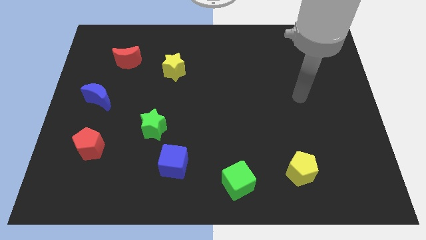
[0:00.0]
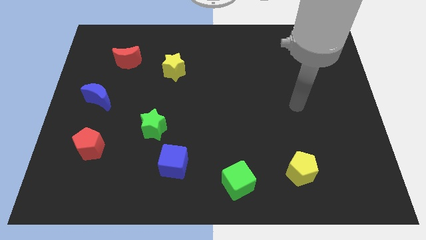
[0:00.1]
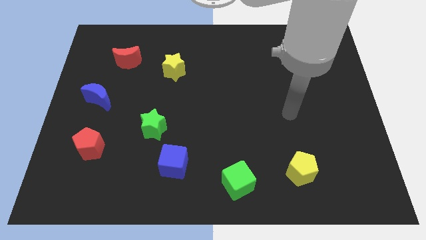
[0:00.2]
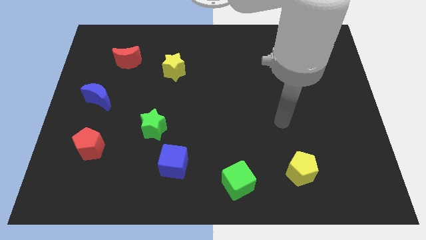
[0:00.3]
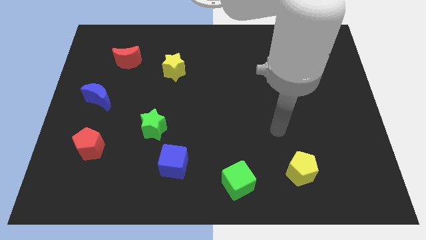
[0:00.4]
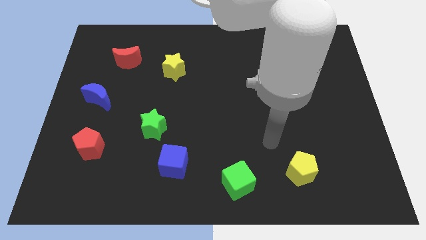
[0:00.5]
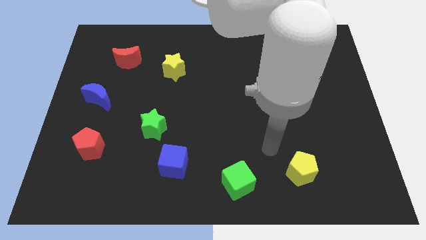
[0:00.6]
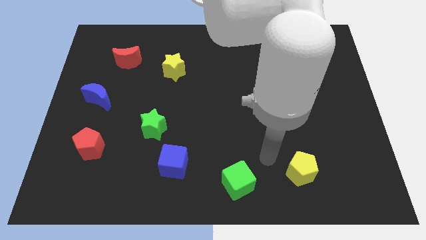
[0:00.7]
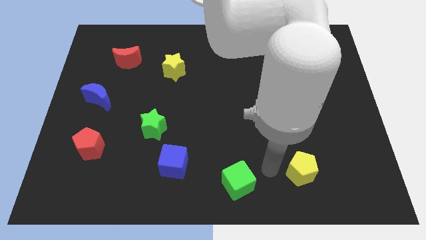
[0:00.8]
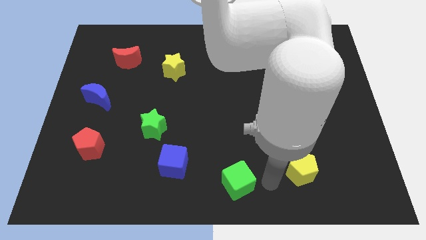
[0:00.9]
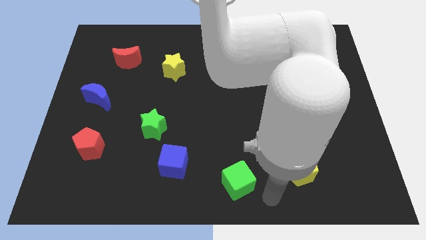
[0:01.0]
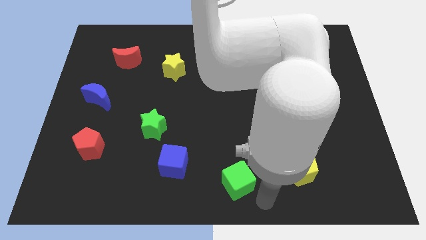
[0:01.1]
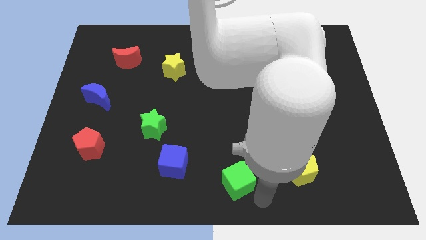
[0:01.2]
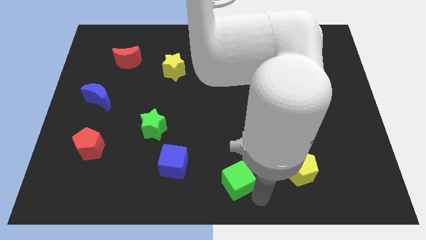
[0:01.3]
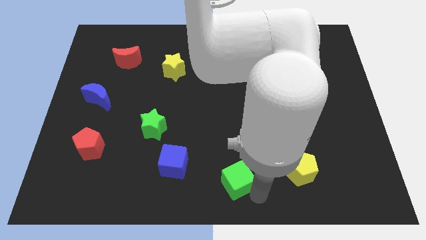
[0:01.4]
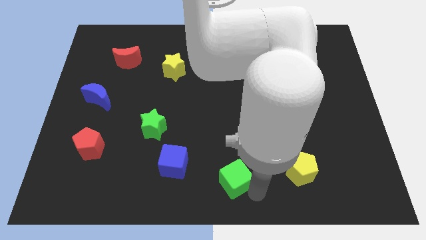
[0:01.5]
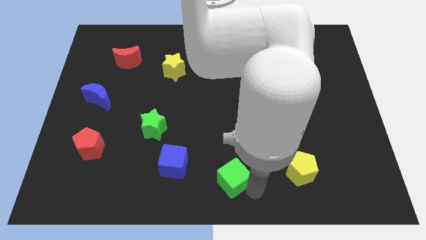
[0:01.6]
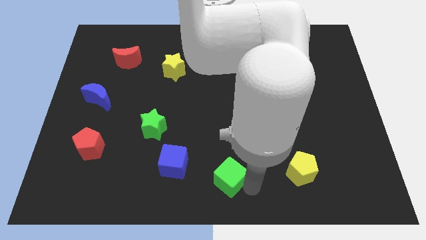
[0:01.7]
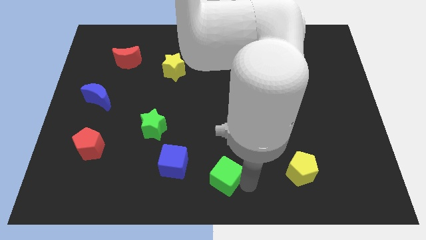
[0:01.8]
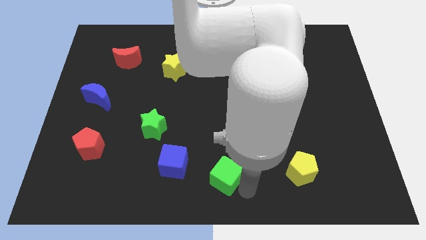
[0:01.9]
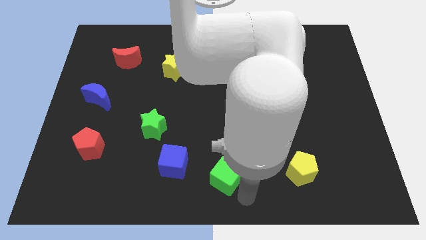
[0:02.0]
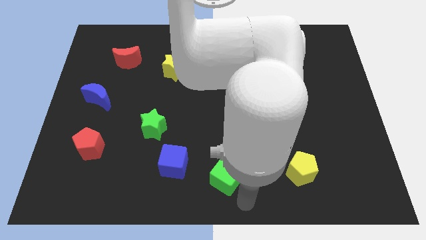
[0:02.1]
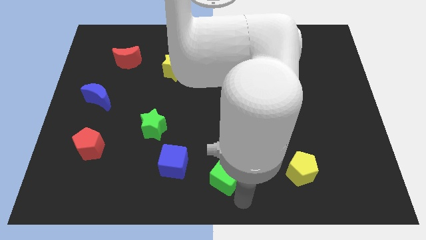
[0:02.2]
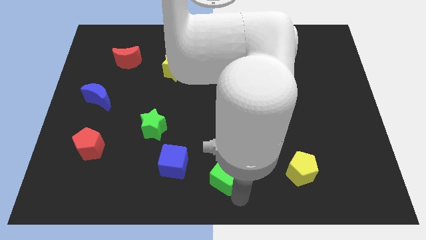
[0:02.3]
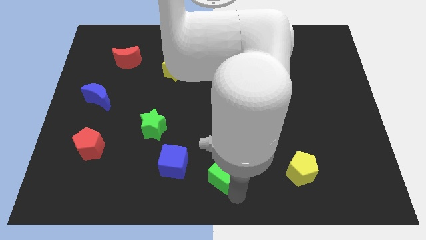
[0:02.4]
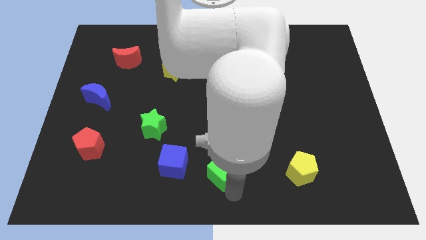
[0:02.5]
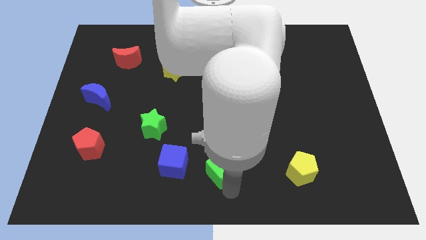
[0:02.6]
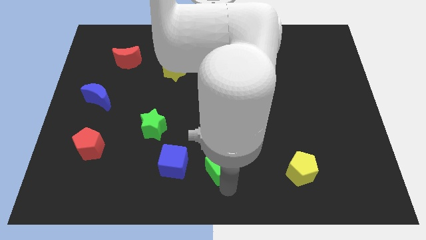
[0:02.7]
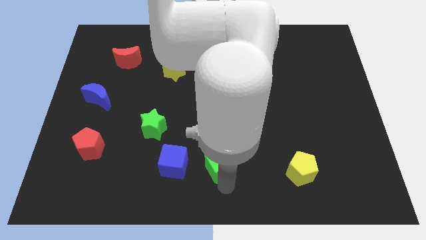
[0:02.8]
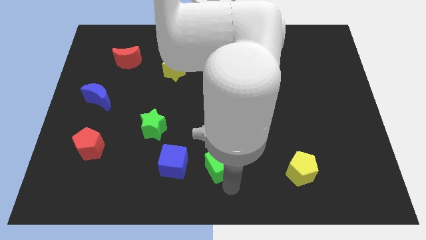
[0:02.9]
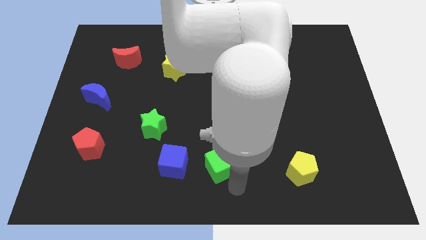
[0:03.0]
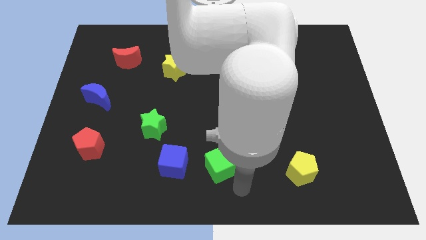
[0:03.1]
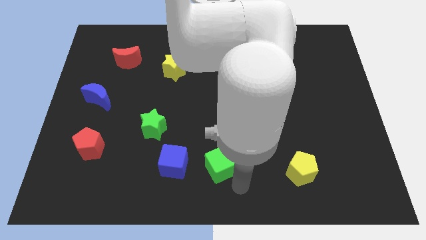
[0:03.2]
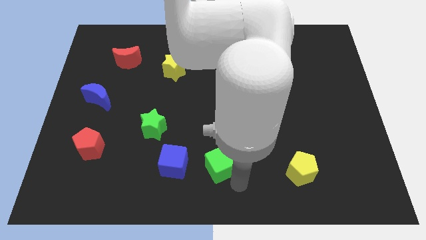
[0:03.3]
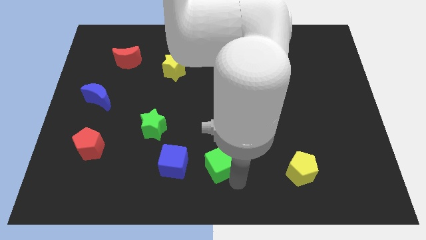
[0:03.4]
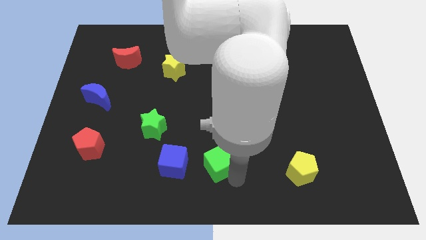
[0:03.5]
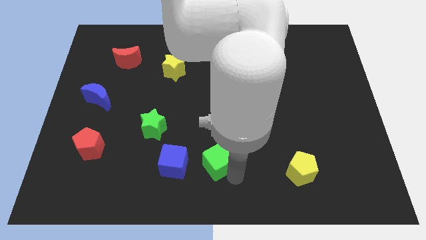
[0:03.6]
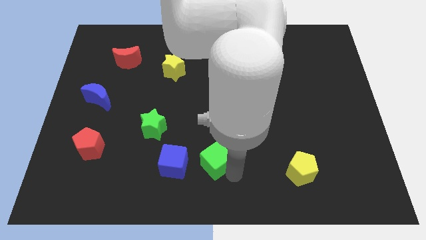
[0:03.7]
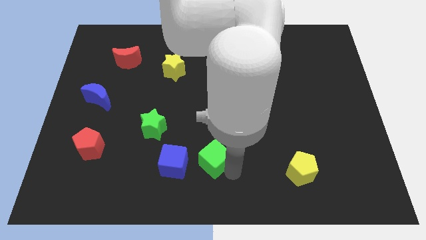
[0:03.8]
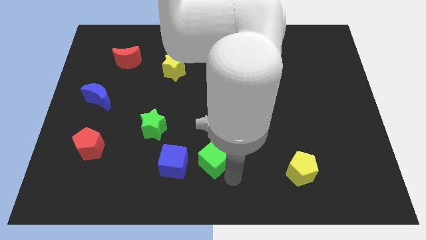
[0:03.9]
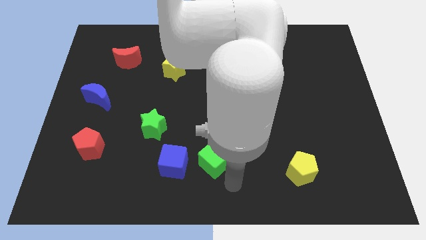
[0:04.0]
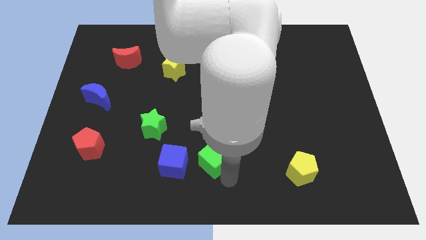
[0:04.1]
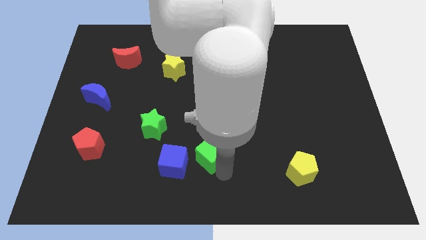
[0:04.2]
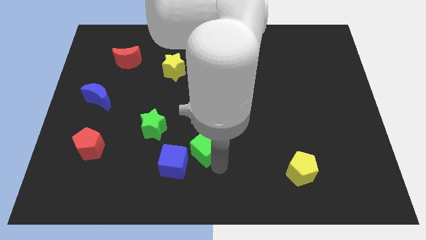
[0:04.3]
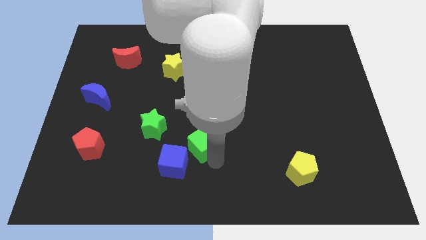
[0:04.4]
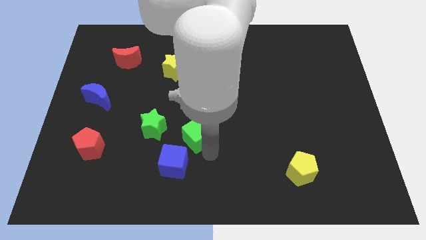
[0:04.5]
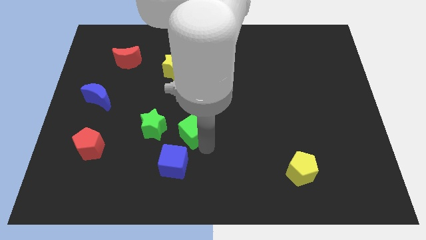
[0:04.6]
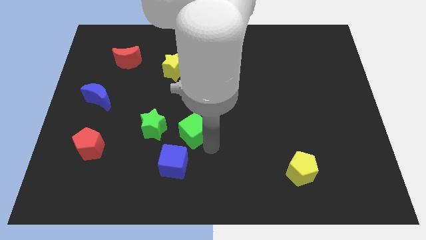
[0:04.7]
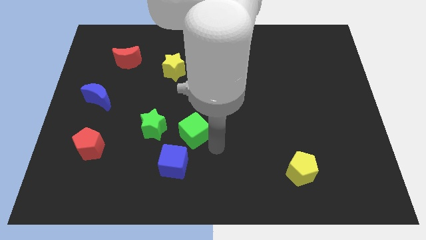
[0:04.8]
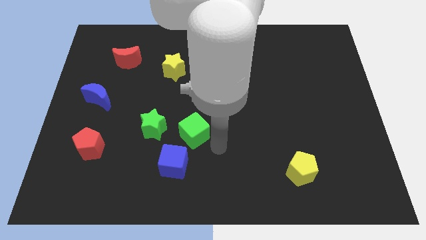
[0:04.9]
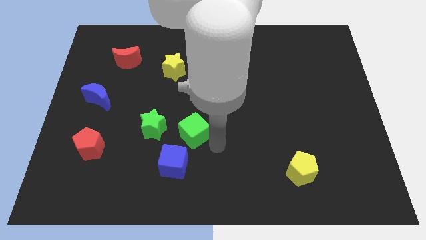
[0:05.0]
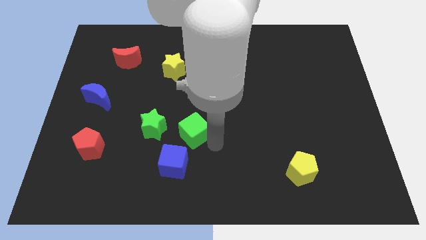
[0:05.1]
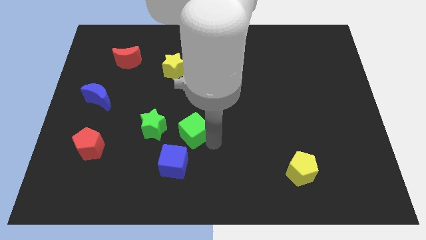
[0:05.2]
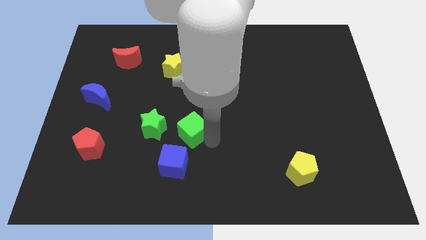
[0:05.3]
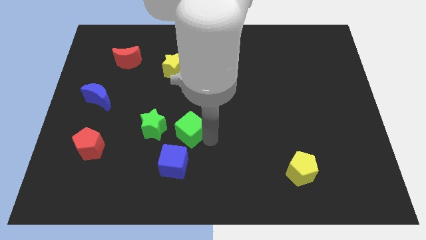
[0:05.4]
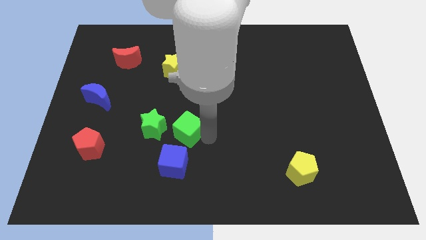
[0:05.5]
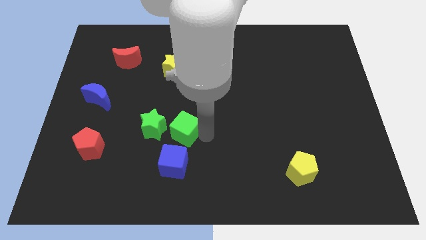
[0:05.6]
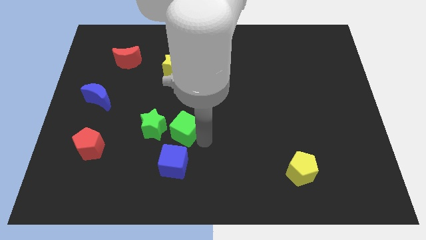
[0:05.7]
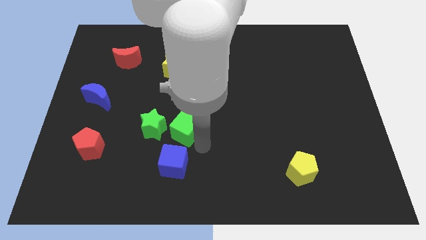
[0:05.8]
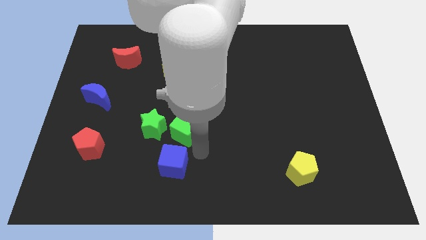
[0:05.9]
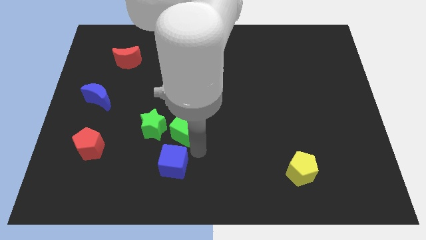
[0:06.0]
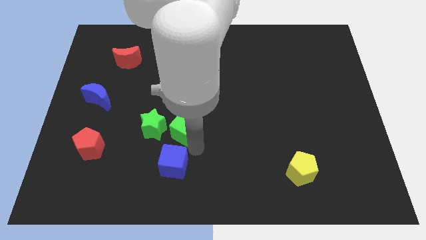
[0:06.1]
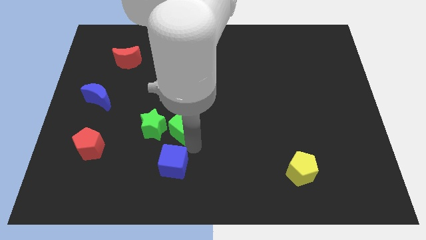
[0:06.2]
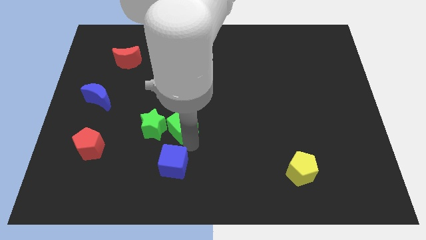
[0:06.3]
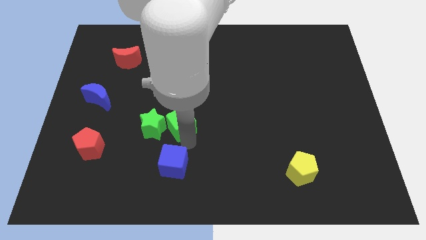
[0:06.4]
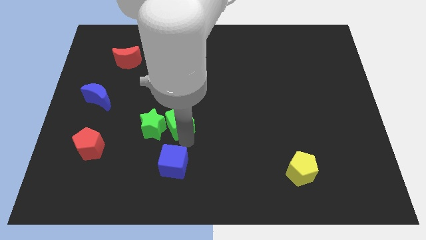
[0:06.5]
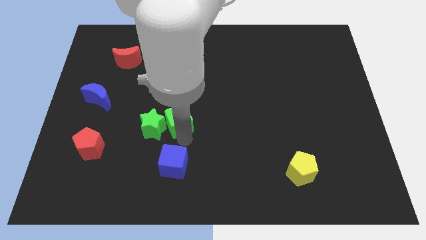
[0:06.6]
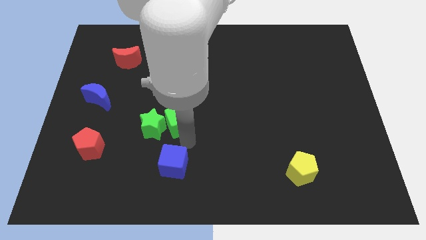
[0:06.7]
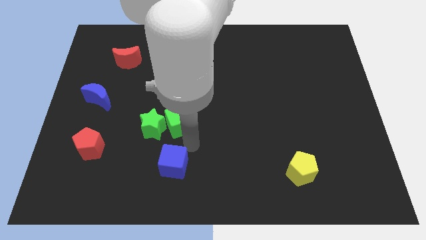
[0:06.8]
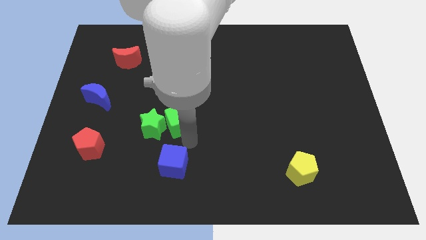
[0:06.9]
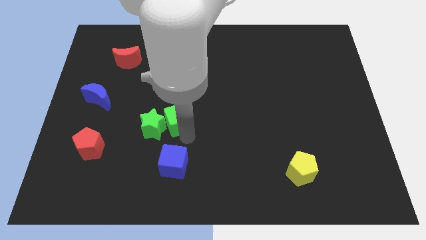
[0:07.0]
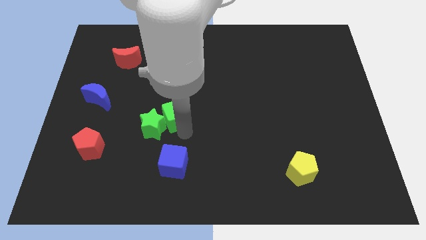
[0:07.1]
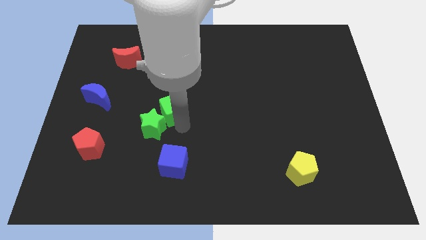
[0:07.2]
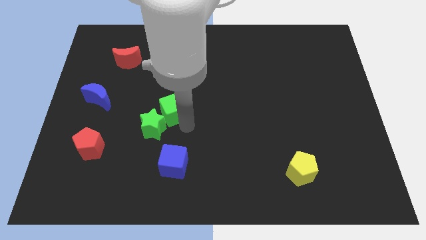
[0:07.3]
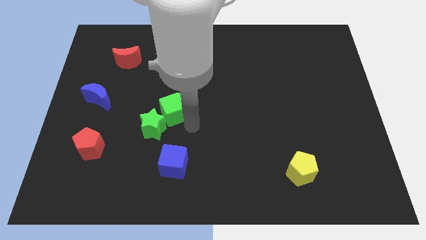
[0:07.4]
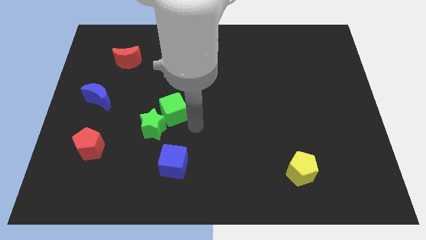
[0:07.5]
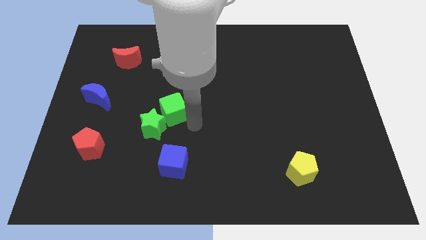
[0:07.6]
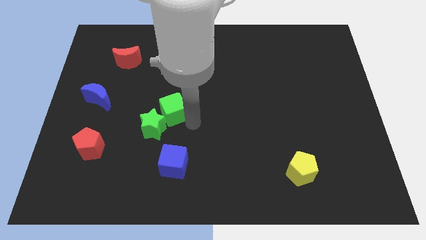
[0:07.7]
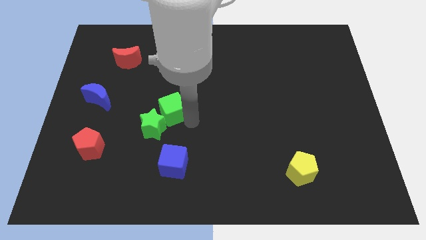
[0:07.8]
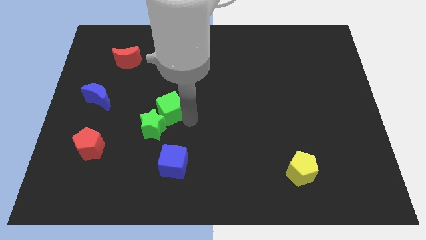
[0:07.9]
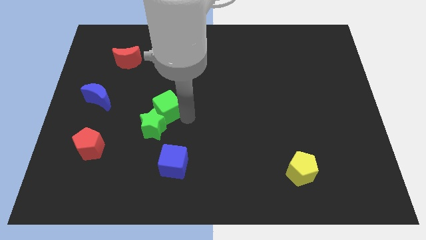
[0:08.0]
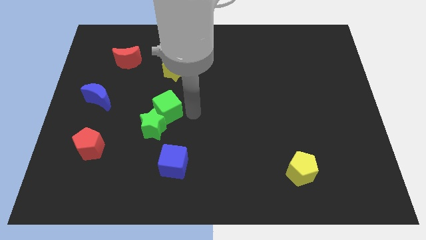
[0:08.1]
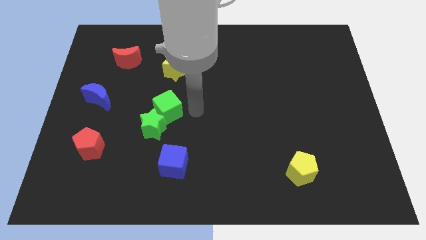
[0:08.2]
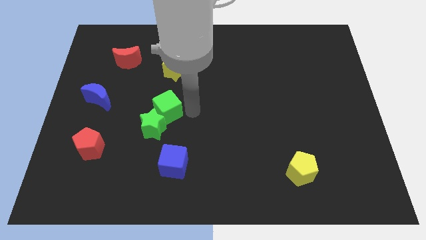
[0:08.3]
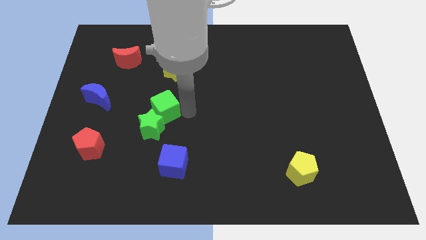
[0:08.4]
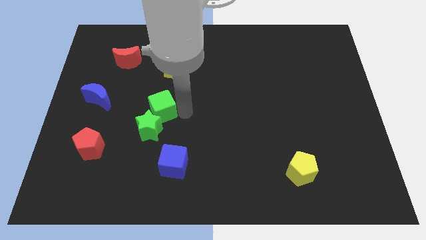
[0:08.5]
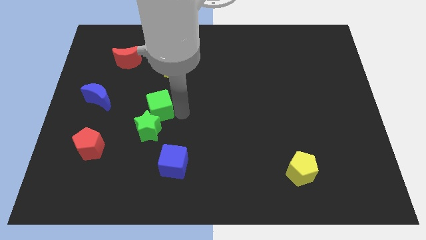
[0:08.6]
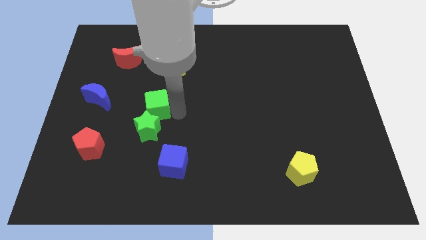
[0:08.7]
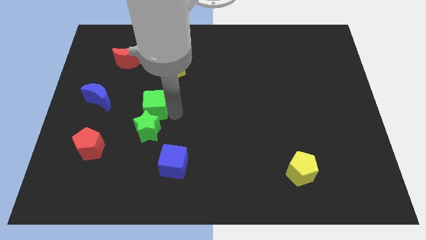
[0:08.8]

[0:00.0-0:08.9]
move the green cube to the top left side of the green star

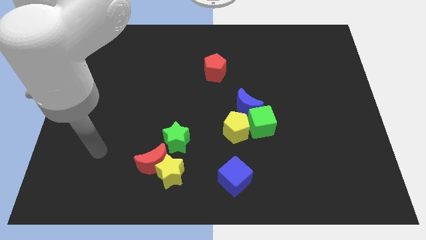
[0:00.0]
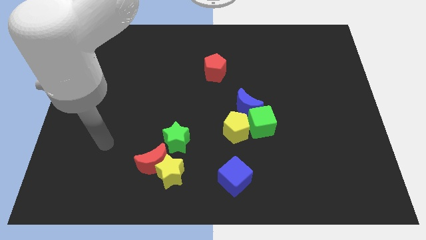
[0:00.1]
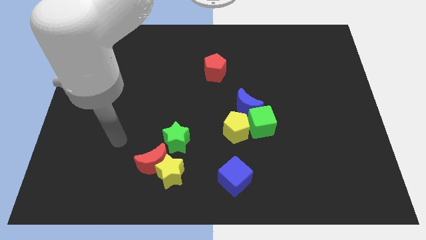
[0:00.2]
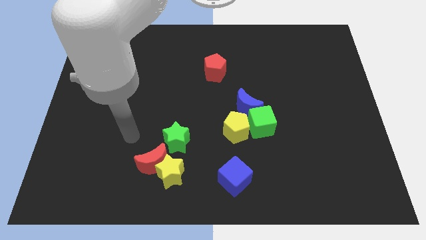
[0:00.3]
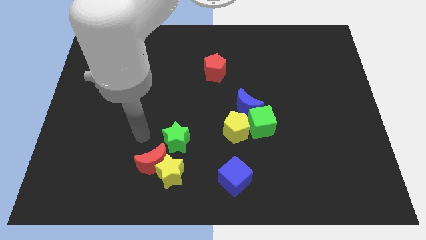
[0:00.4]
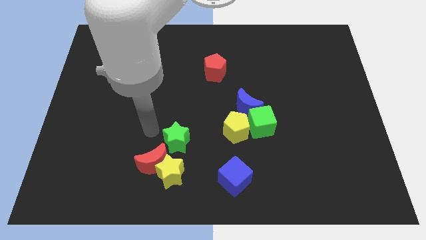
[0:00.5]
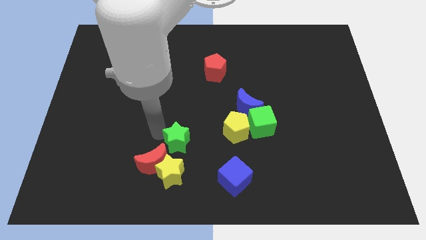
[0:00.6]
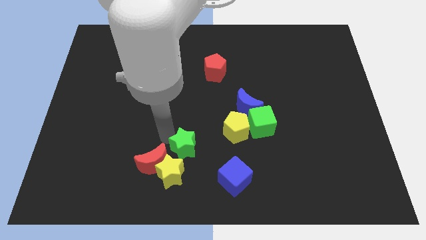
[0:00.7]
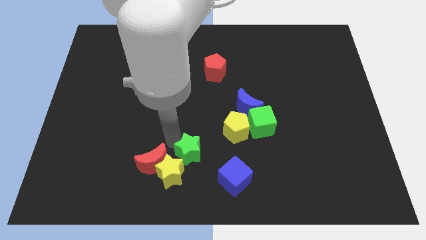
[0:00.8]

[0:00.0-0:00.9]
put the green star diagonally up and to the left of the blue cube
